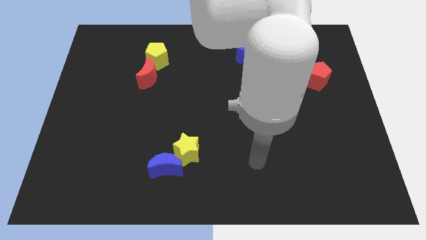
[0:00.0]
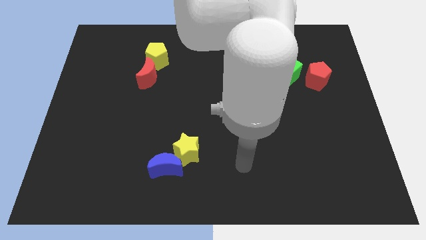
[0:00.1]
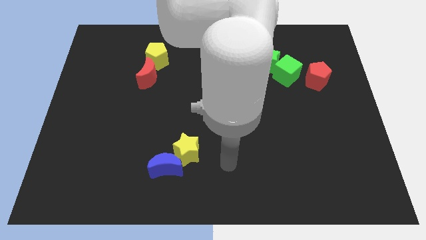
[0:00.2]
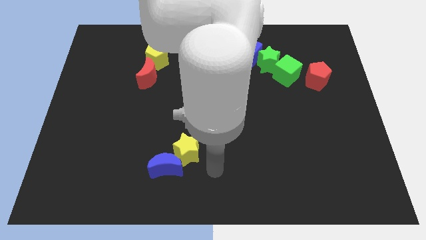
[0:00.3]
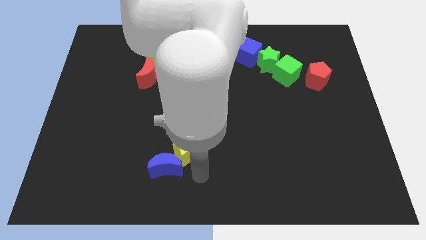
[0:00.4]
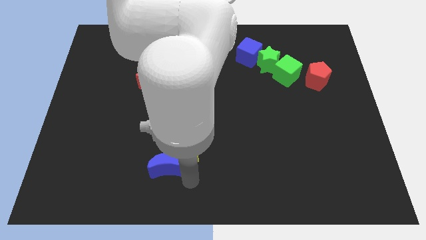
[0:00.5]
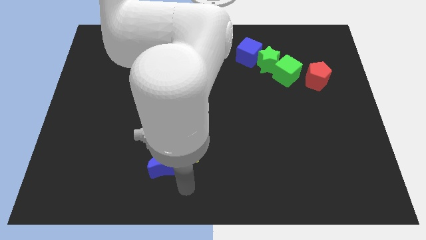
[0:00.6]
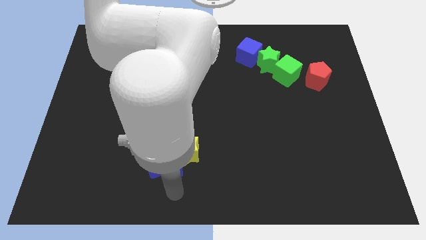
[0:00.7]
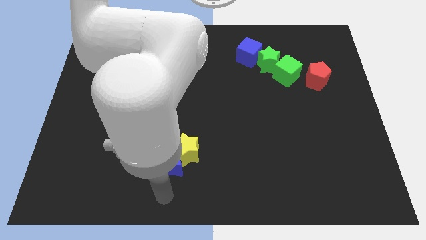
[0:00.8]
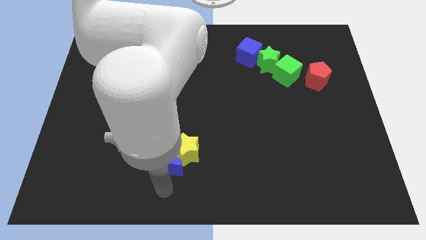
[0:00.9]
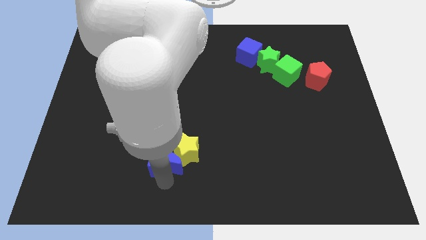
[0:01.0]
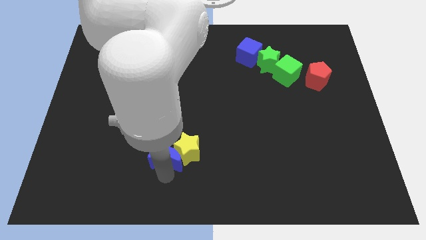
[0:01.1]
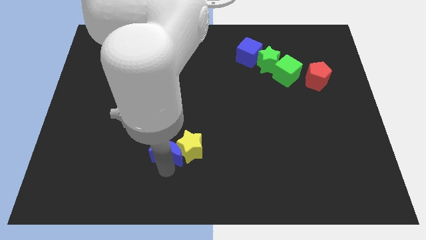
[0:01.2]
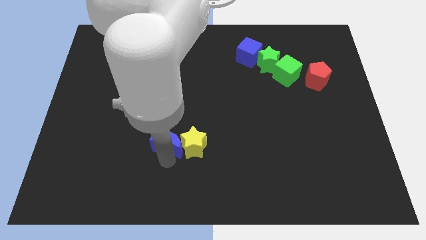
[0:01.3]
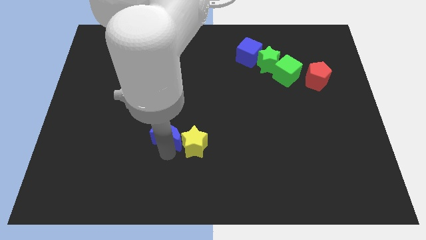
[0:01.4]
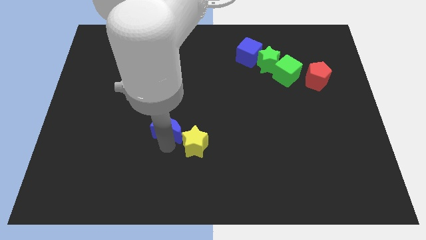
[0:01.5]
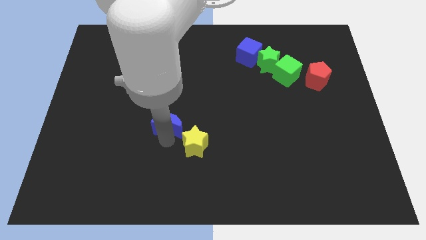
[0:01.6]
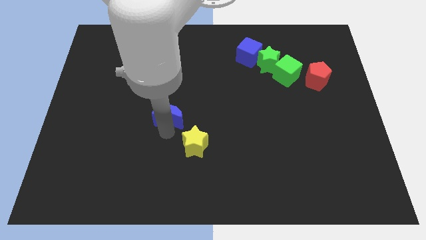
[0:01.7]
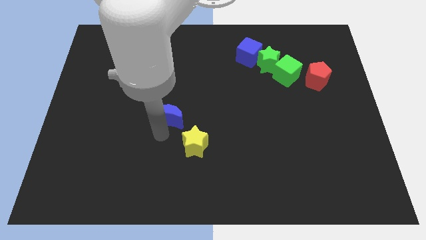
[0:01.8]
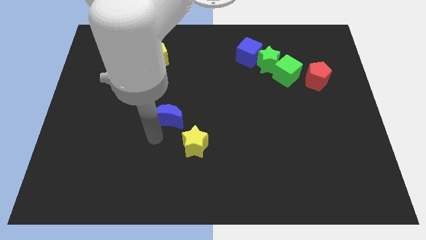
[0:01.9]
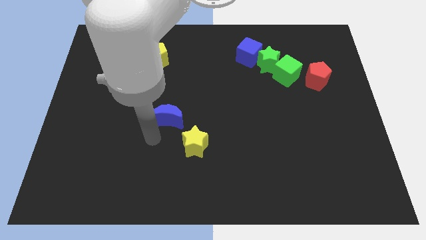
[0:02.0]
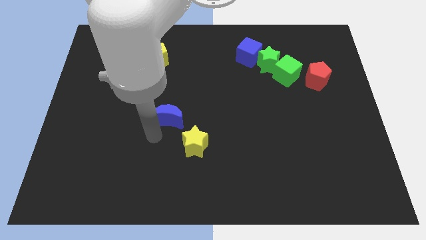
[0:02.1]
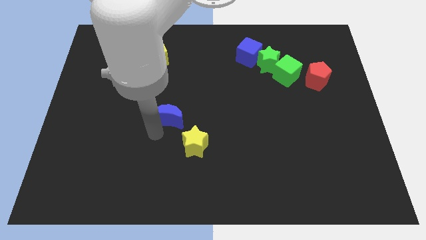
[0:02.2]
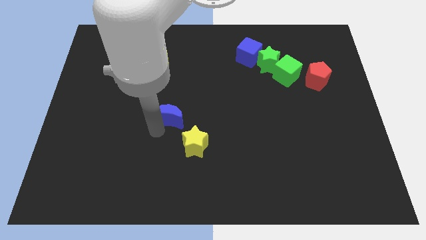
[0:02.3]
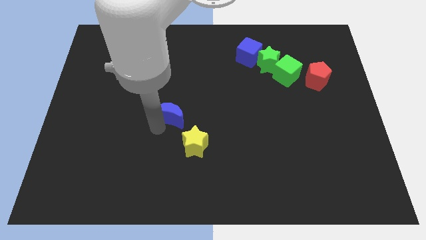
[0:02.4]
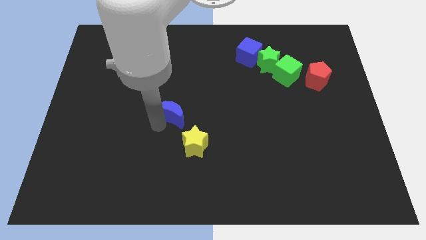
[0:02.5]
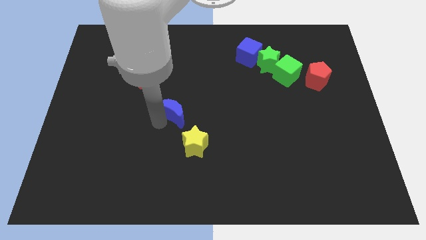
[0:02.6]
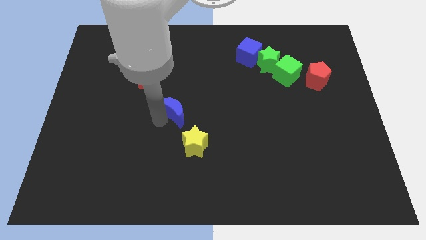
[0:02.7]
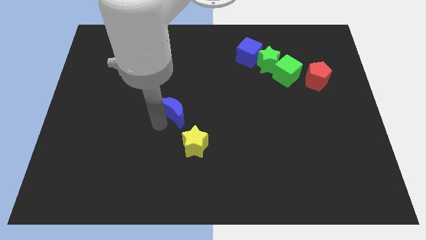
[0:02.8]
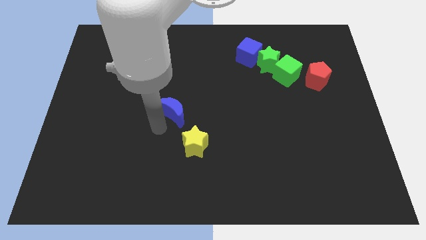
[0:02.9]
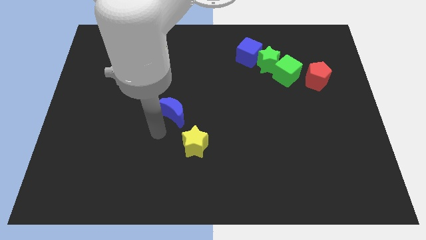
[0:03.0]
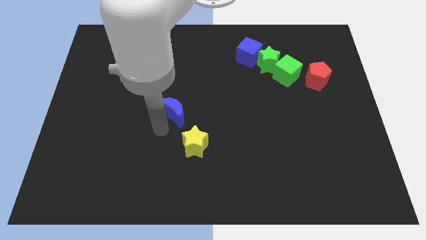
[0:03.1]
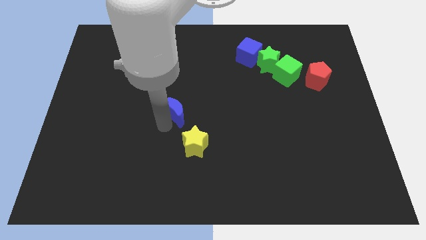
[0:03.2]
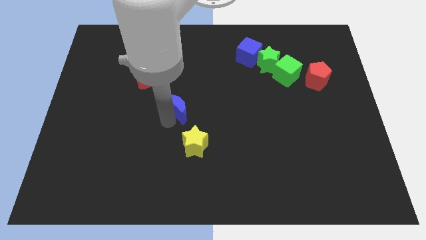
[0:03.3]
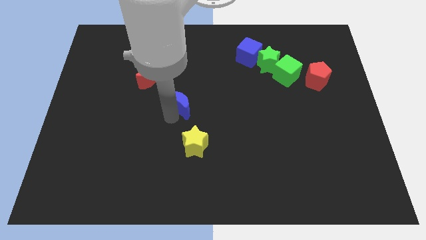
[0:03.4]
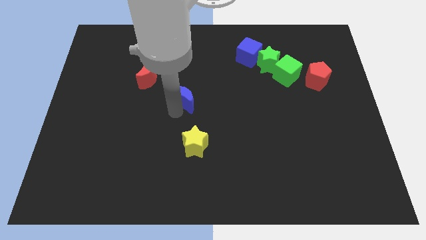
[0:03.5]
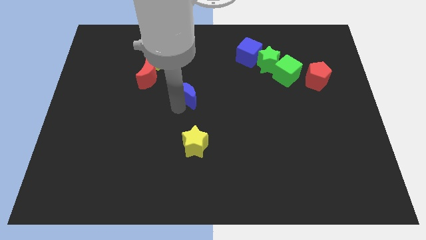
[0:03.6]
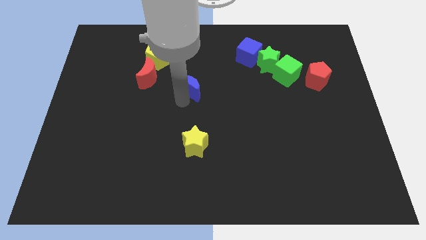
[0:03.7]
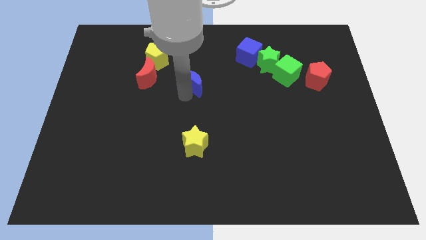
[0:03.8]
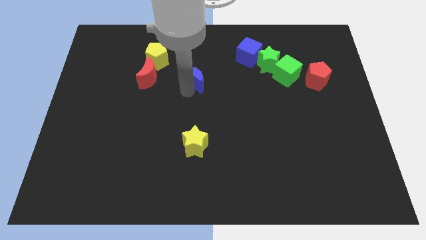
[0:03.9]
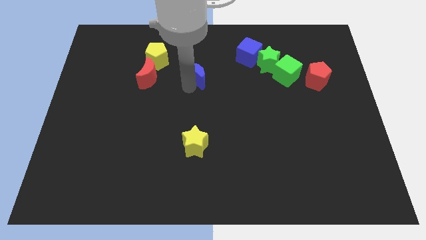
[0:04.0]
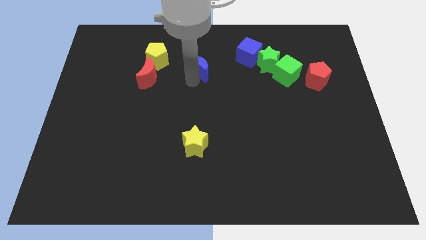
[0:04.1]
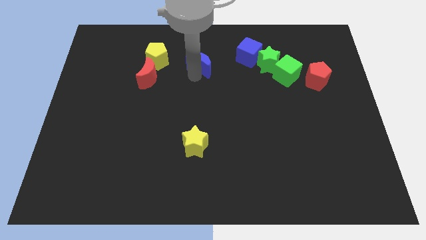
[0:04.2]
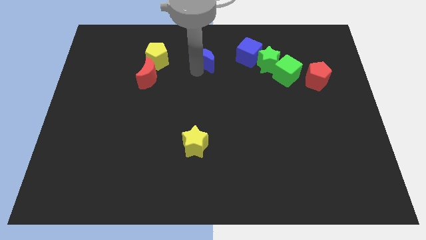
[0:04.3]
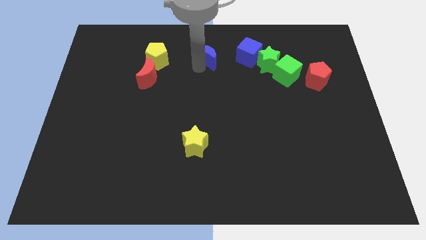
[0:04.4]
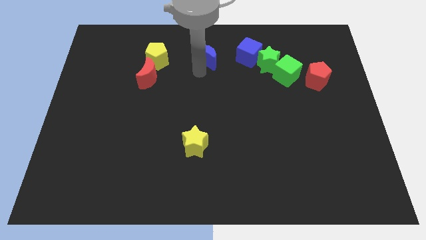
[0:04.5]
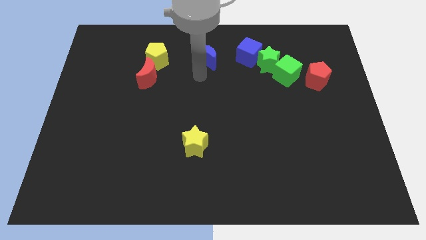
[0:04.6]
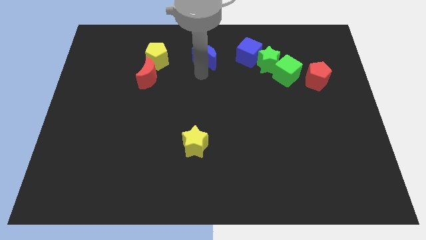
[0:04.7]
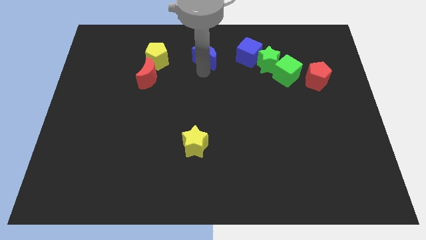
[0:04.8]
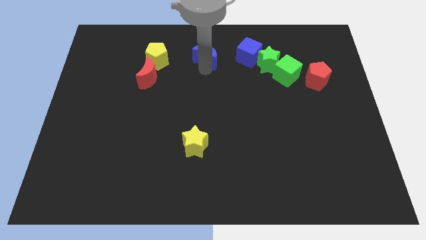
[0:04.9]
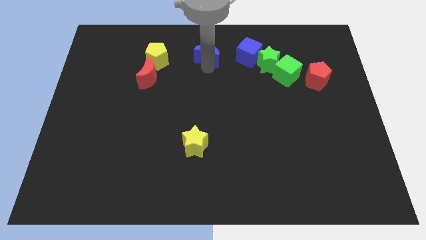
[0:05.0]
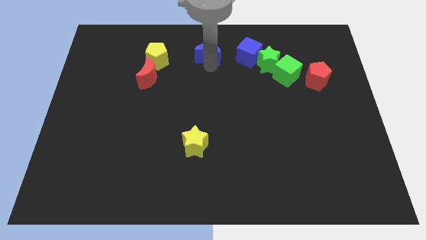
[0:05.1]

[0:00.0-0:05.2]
slide the blue moon to the towards your base

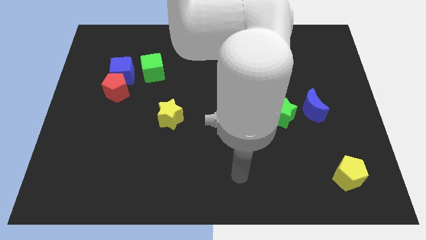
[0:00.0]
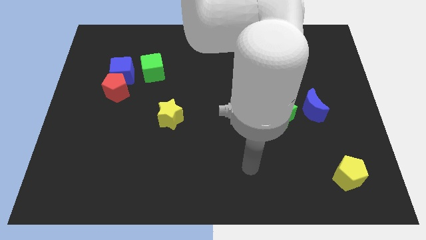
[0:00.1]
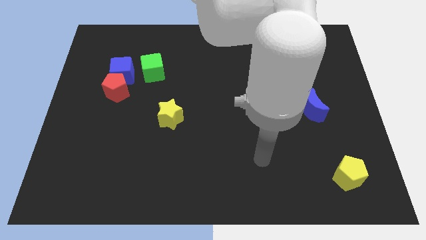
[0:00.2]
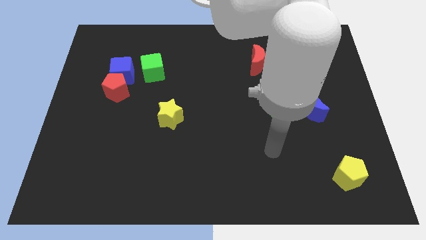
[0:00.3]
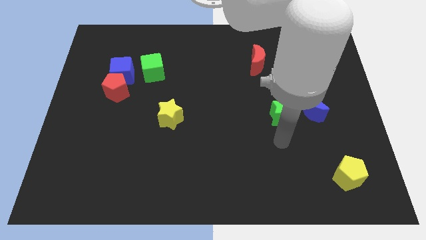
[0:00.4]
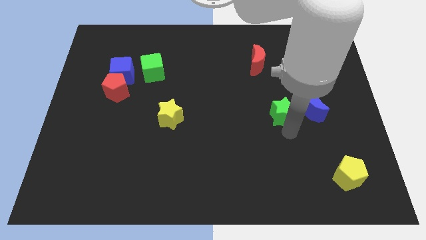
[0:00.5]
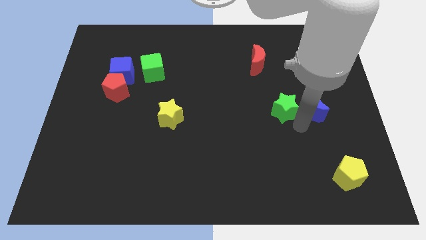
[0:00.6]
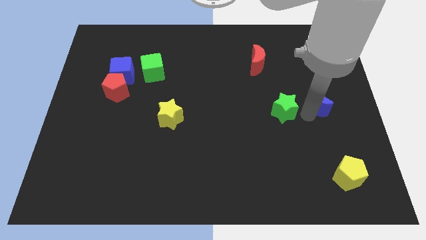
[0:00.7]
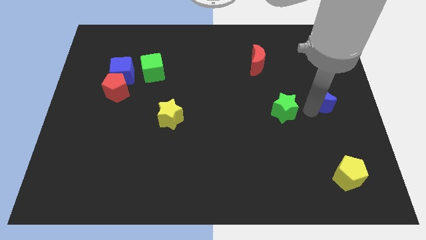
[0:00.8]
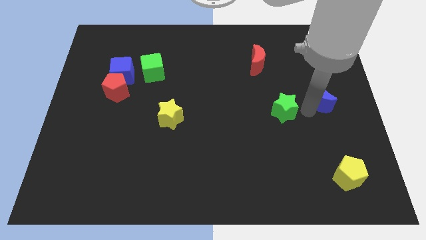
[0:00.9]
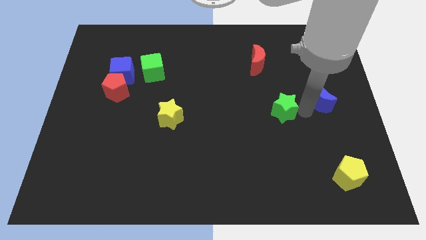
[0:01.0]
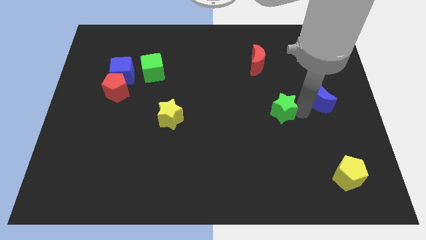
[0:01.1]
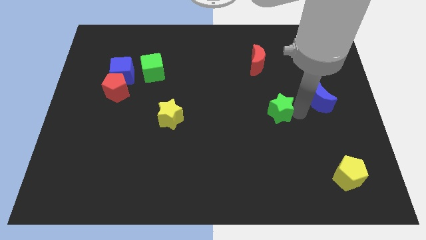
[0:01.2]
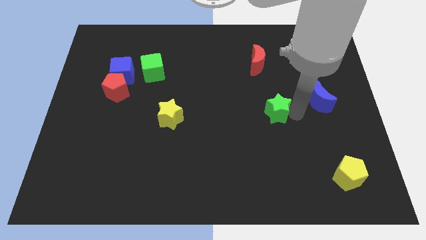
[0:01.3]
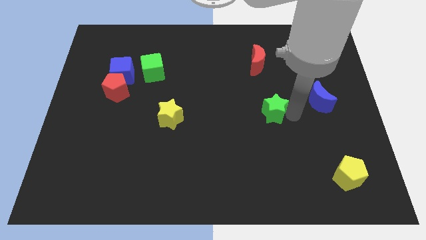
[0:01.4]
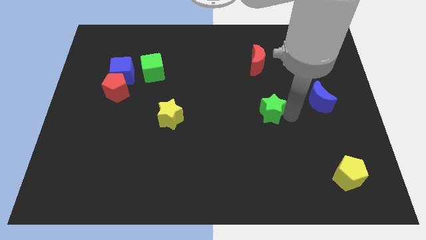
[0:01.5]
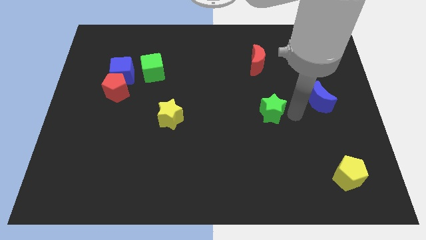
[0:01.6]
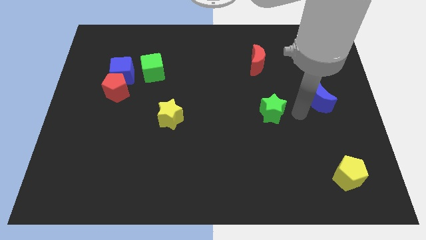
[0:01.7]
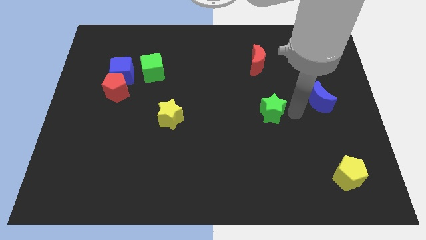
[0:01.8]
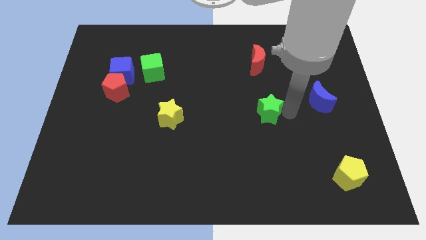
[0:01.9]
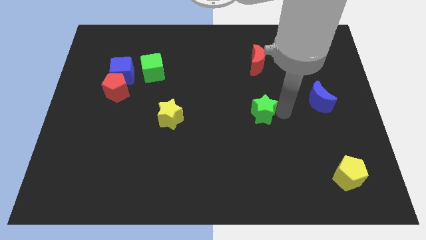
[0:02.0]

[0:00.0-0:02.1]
slide the green star to the middle
